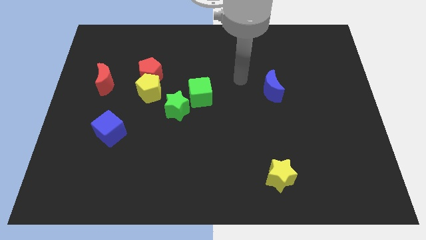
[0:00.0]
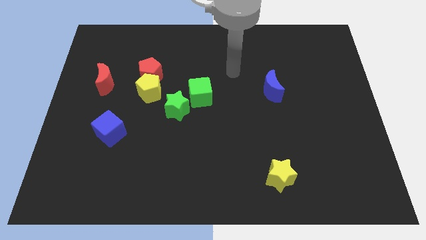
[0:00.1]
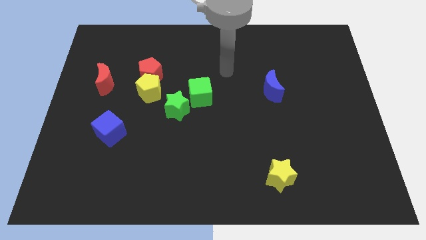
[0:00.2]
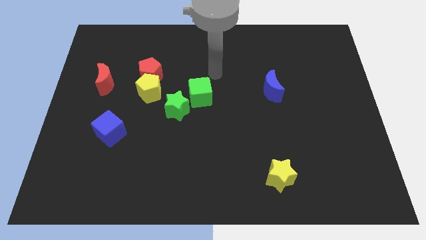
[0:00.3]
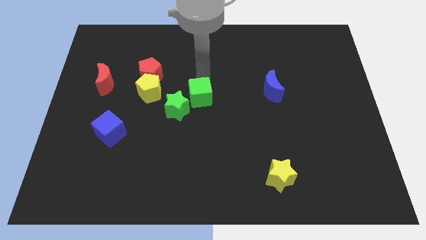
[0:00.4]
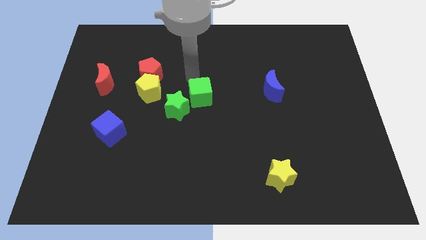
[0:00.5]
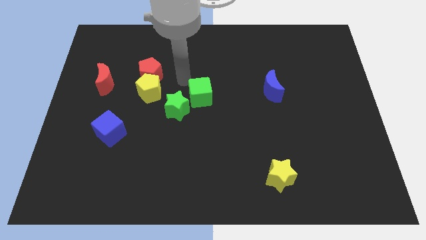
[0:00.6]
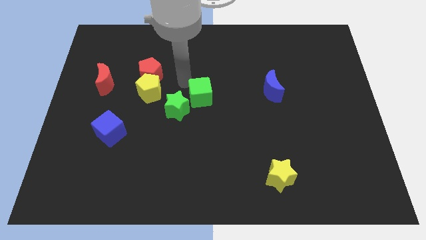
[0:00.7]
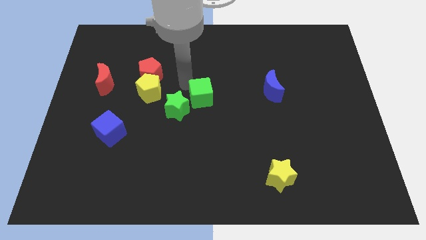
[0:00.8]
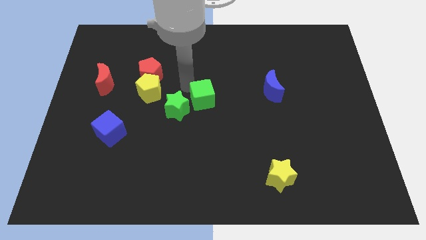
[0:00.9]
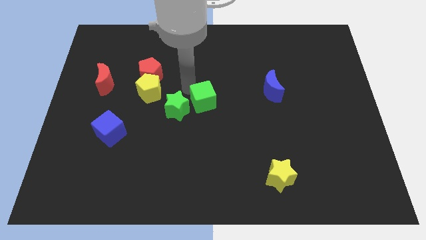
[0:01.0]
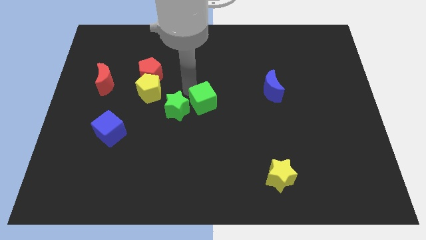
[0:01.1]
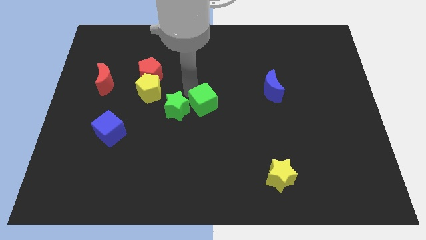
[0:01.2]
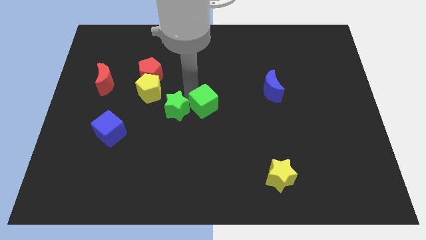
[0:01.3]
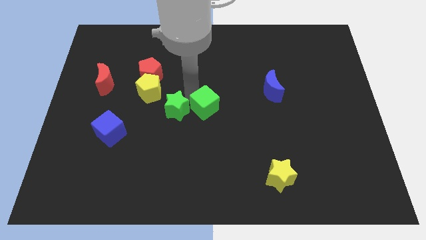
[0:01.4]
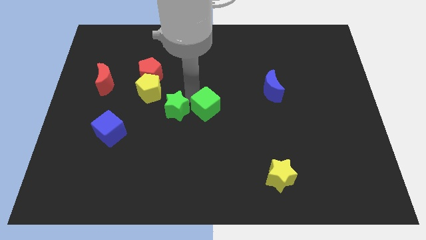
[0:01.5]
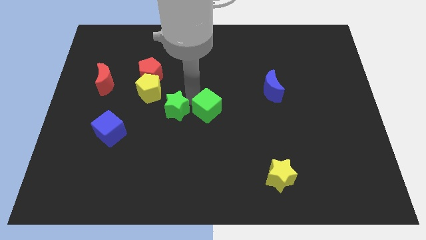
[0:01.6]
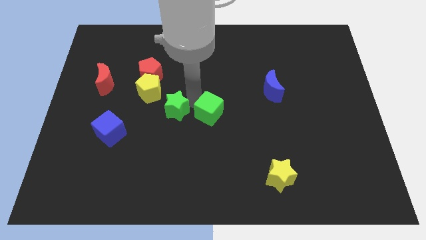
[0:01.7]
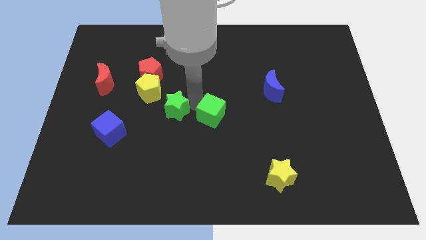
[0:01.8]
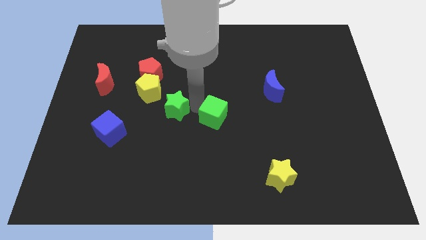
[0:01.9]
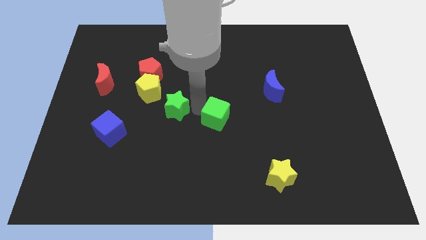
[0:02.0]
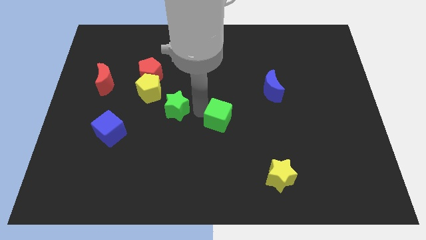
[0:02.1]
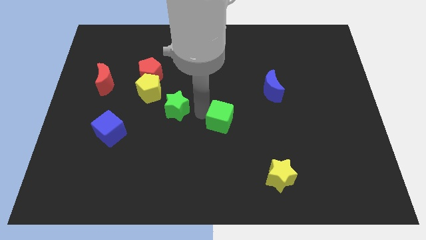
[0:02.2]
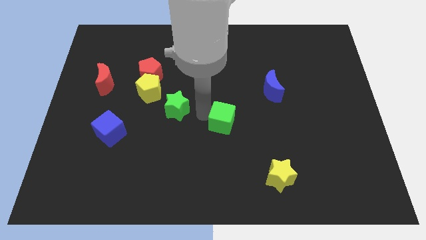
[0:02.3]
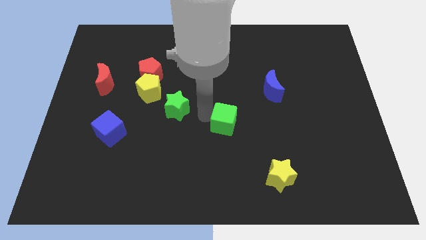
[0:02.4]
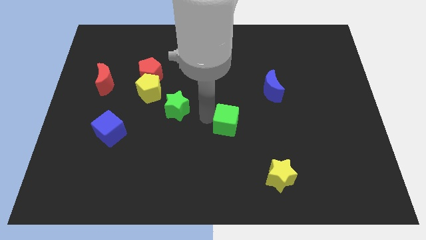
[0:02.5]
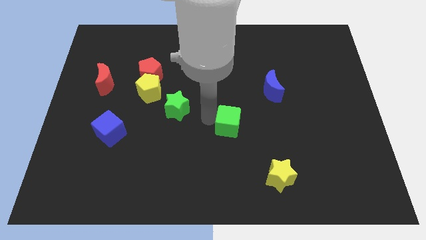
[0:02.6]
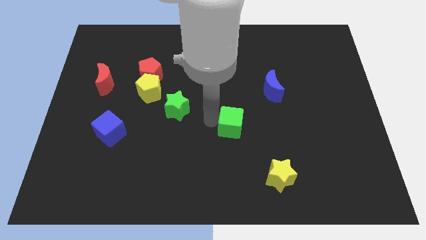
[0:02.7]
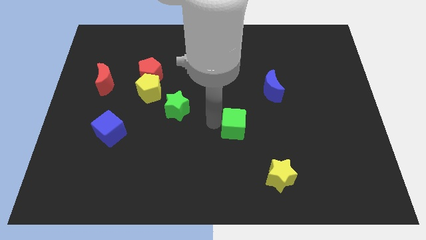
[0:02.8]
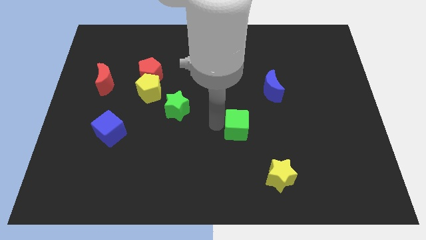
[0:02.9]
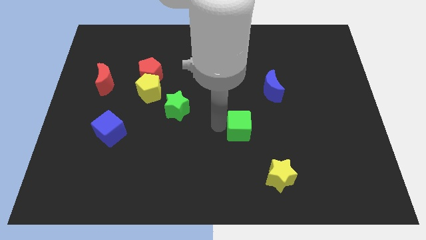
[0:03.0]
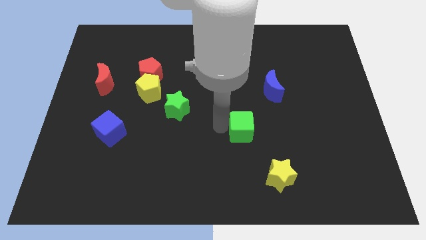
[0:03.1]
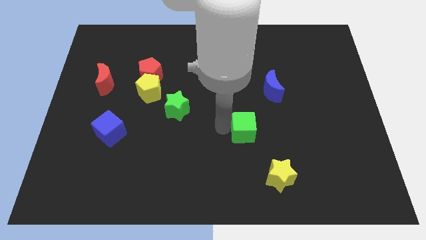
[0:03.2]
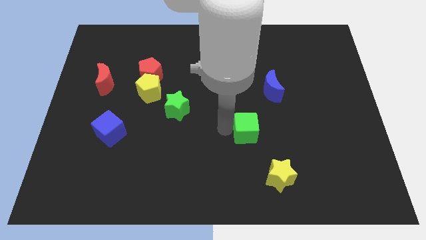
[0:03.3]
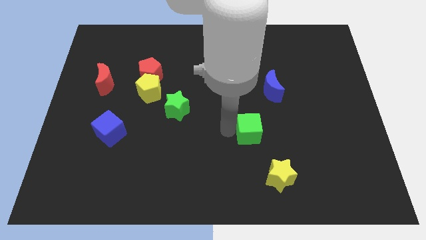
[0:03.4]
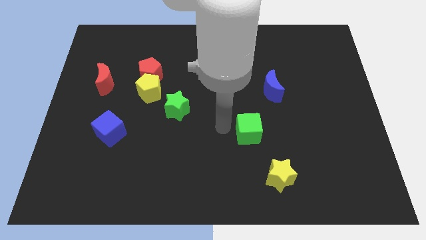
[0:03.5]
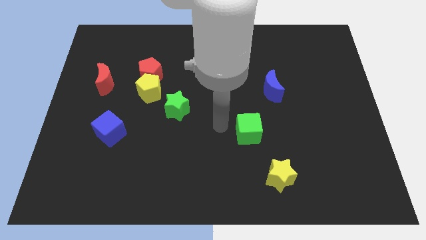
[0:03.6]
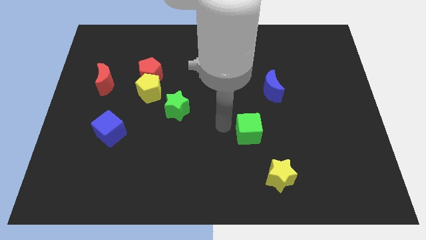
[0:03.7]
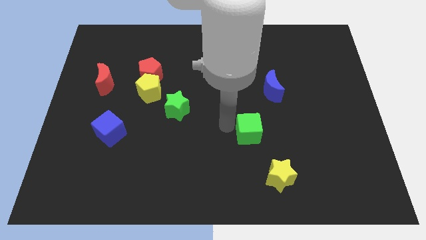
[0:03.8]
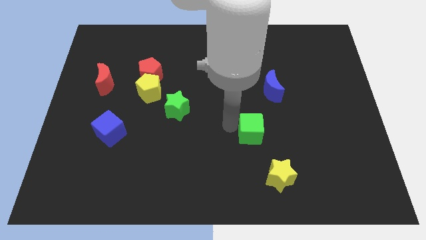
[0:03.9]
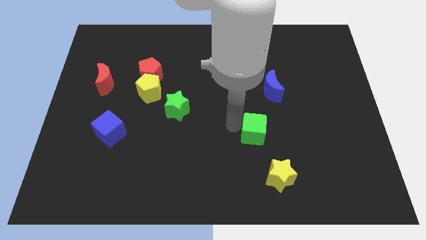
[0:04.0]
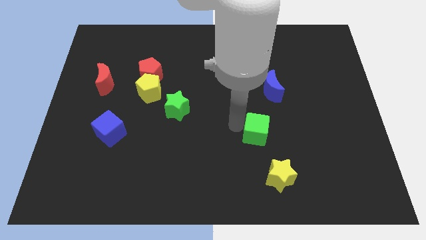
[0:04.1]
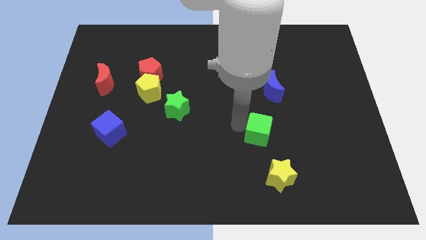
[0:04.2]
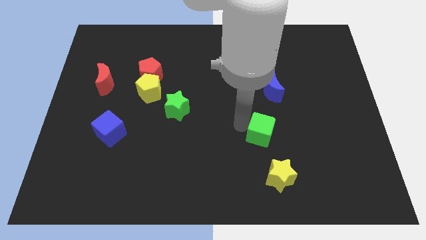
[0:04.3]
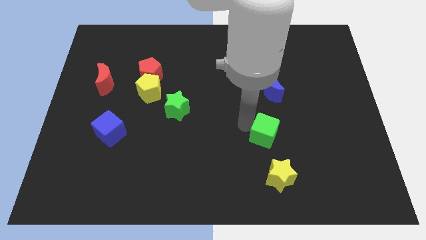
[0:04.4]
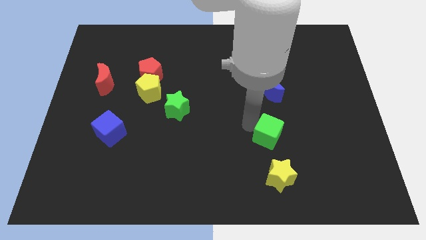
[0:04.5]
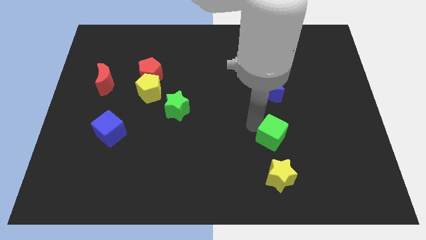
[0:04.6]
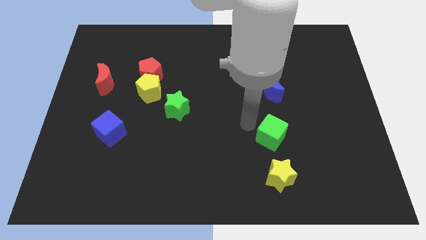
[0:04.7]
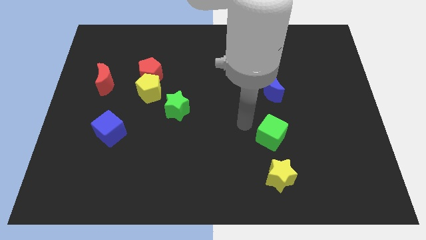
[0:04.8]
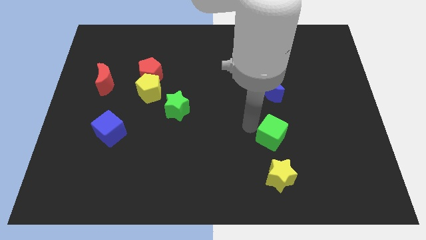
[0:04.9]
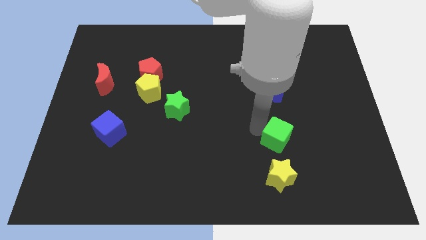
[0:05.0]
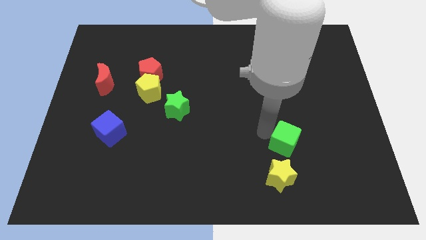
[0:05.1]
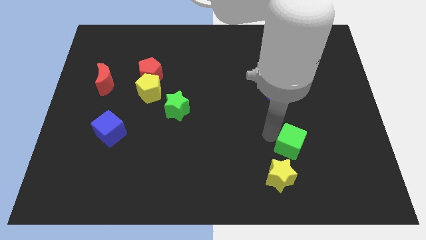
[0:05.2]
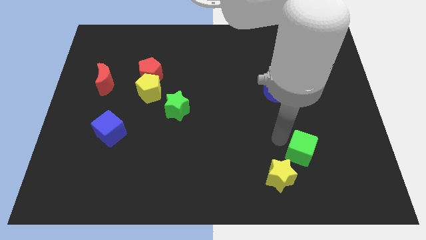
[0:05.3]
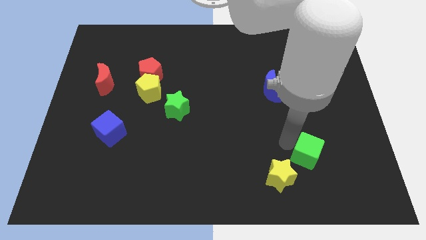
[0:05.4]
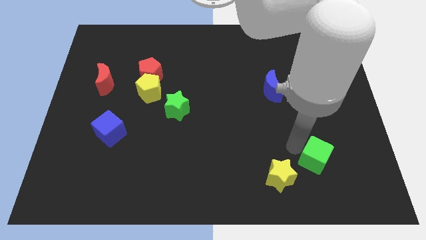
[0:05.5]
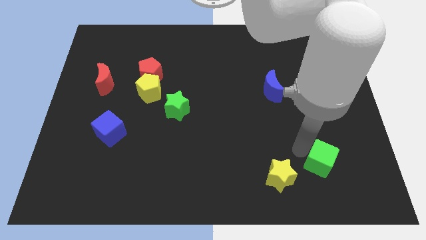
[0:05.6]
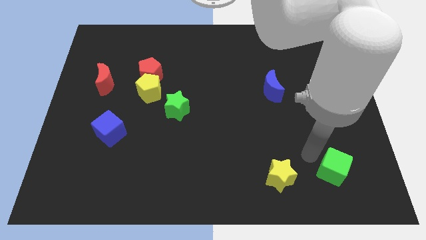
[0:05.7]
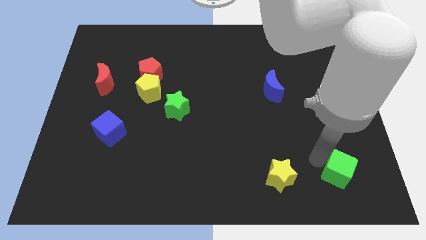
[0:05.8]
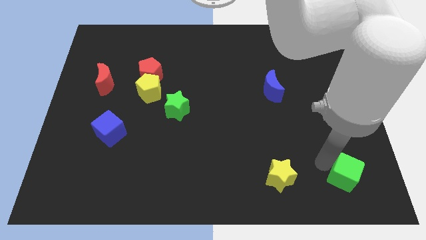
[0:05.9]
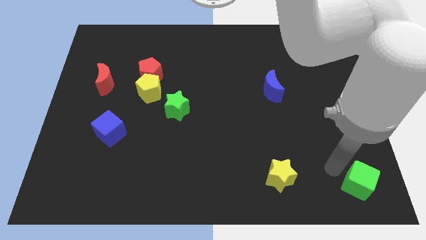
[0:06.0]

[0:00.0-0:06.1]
move the green cube to the bottom right

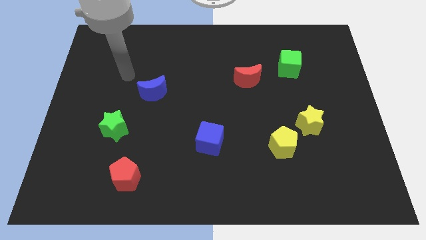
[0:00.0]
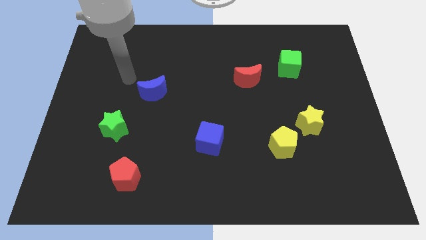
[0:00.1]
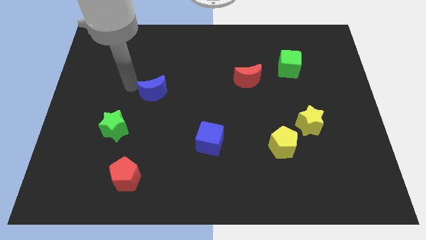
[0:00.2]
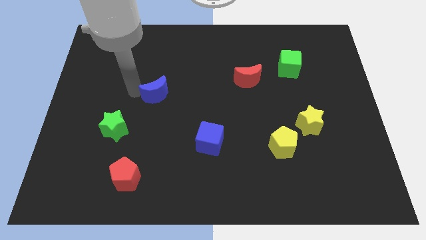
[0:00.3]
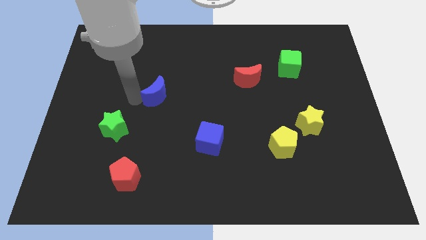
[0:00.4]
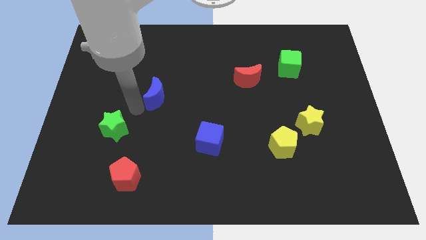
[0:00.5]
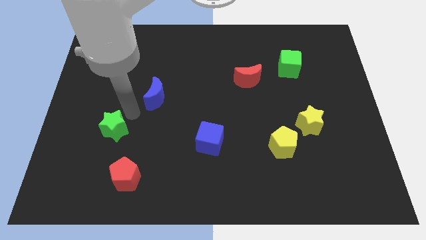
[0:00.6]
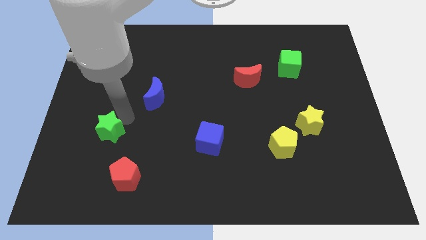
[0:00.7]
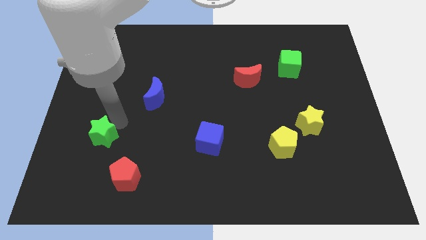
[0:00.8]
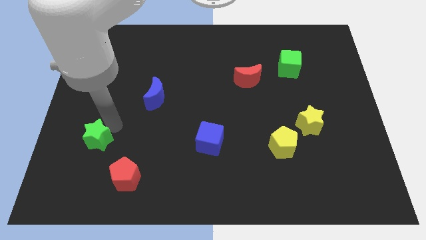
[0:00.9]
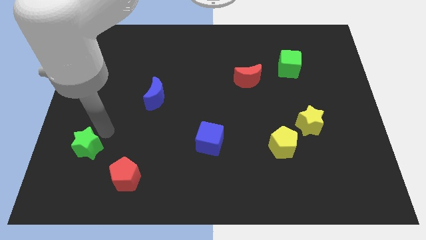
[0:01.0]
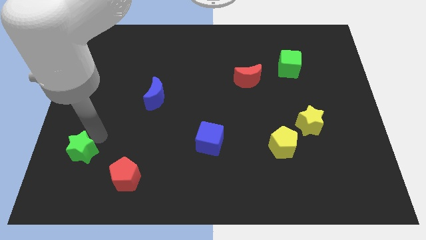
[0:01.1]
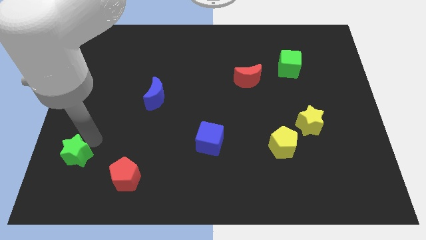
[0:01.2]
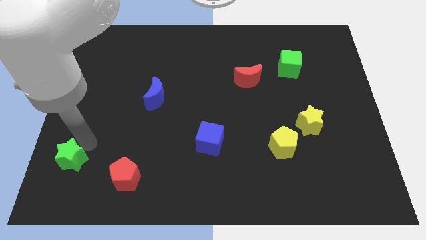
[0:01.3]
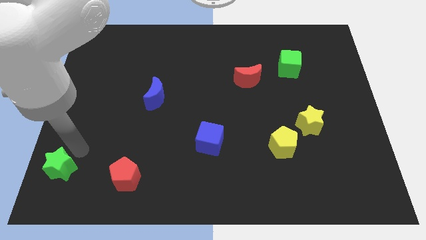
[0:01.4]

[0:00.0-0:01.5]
push the green star to the bottom left corner

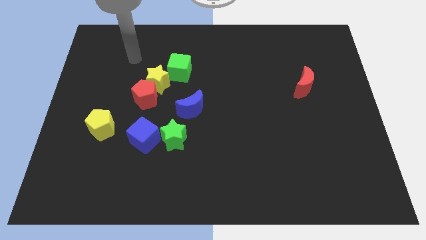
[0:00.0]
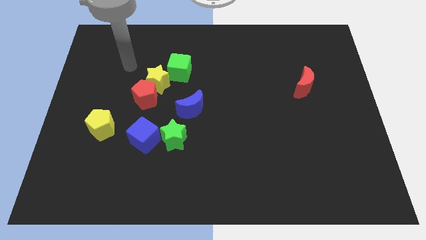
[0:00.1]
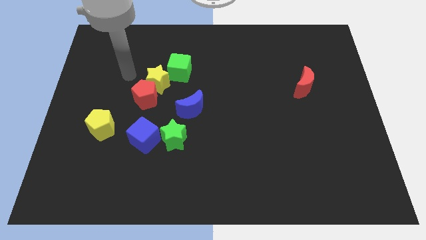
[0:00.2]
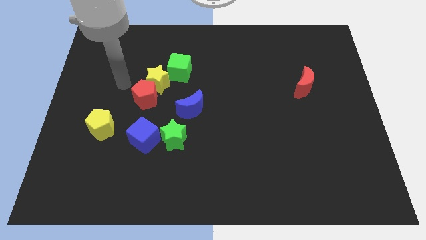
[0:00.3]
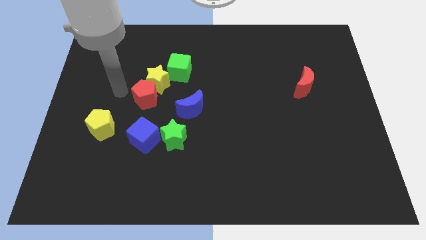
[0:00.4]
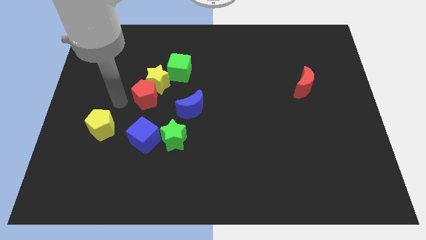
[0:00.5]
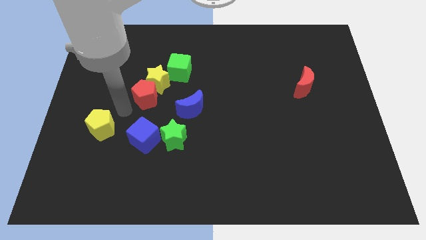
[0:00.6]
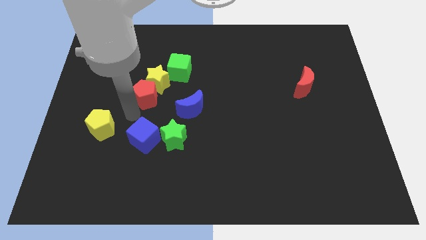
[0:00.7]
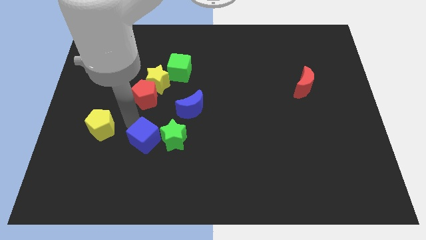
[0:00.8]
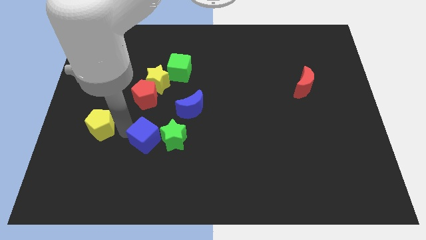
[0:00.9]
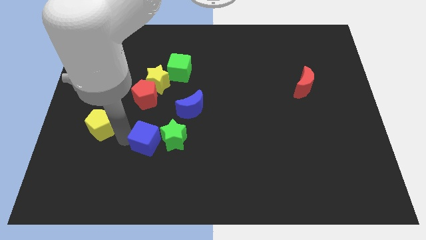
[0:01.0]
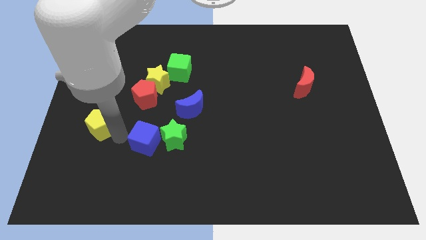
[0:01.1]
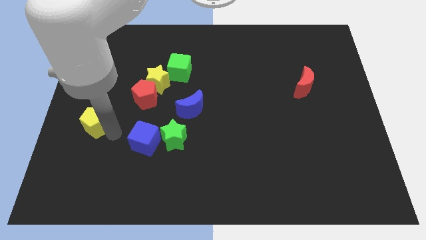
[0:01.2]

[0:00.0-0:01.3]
slide the yellow pentagon to the center left
